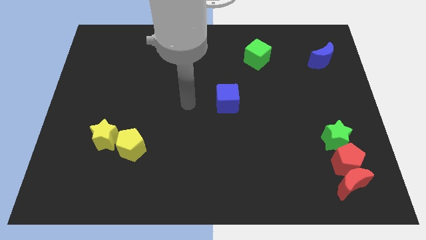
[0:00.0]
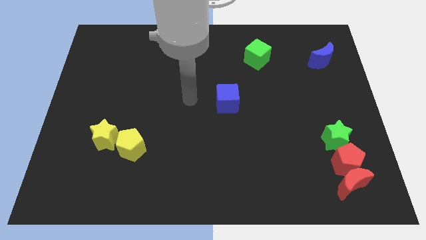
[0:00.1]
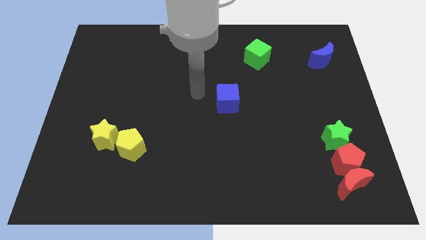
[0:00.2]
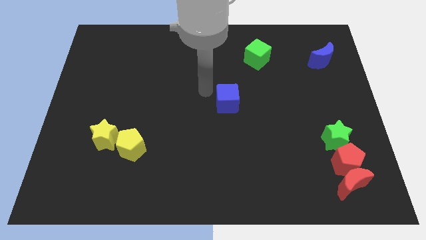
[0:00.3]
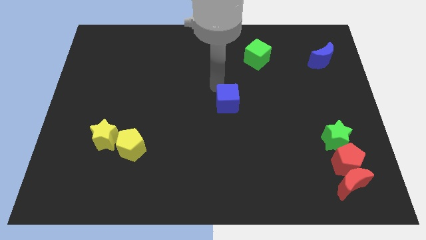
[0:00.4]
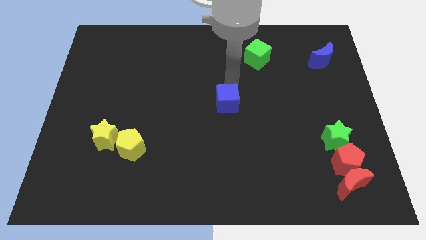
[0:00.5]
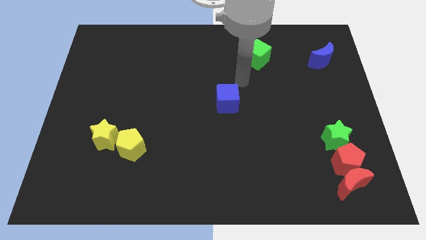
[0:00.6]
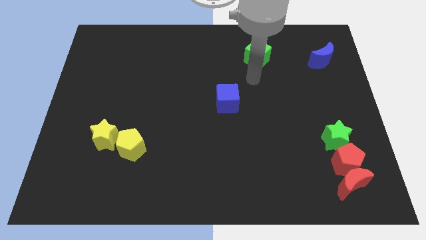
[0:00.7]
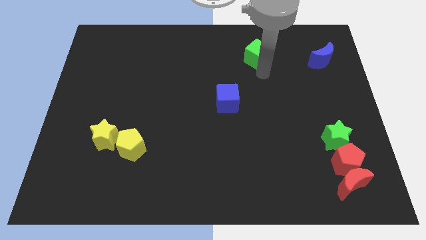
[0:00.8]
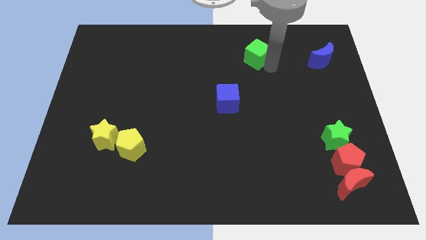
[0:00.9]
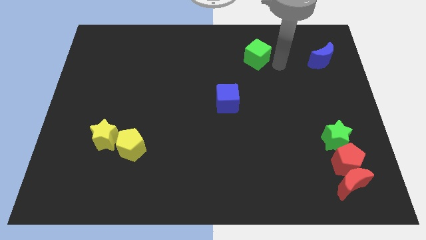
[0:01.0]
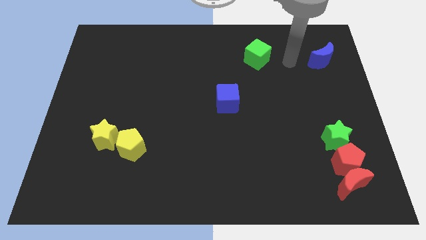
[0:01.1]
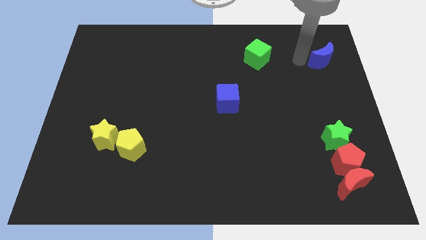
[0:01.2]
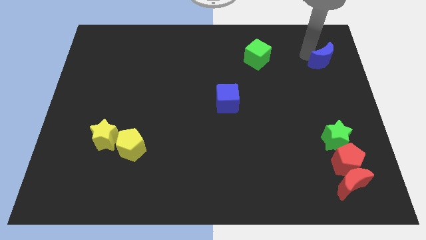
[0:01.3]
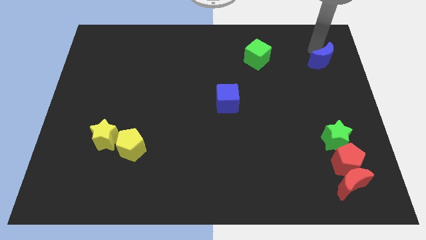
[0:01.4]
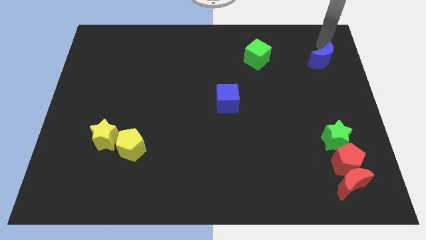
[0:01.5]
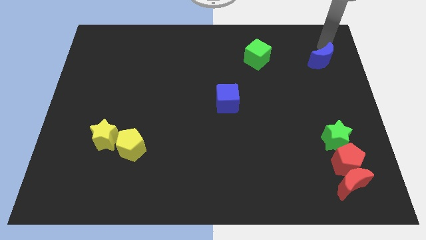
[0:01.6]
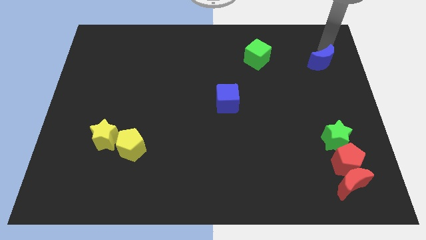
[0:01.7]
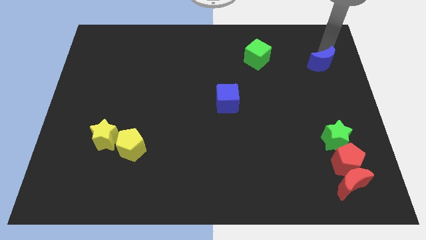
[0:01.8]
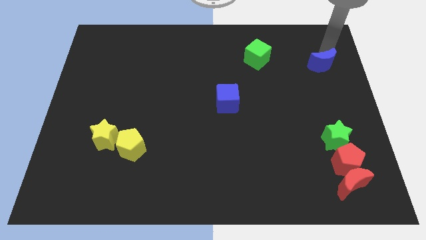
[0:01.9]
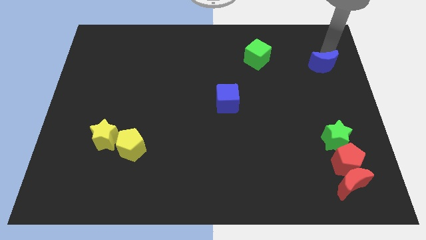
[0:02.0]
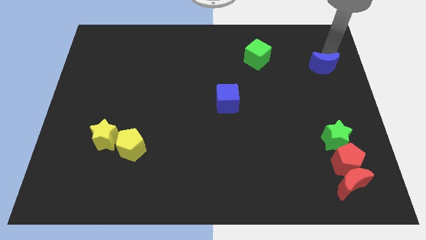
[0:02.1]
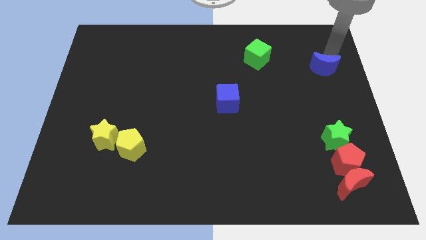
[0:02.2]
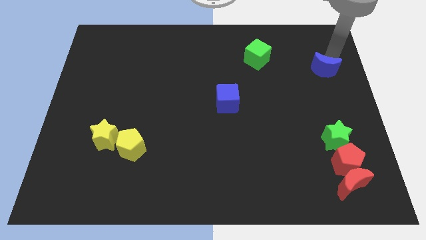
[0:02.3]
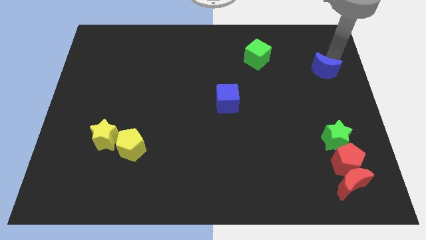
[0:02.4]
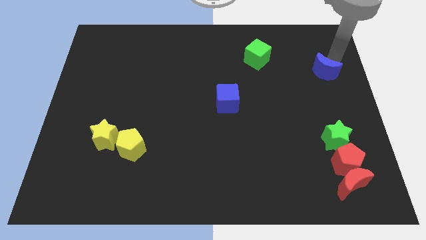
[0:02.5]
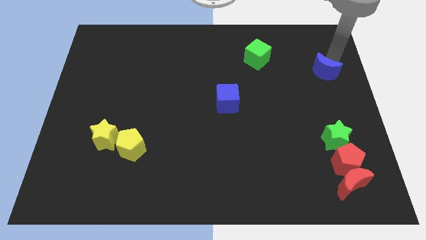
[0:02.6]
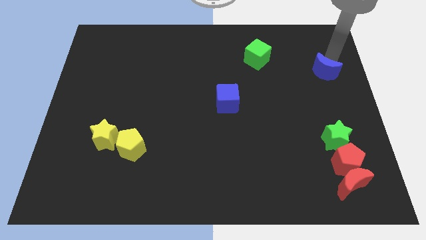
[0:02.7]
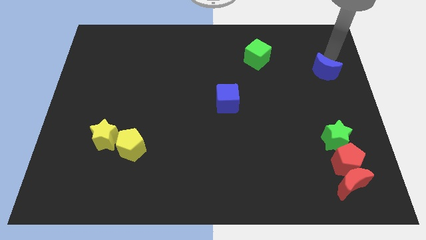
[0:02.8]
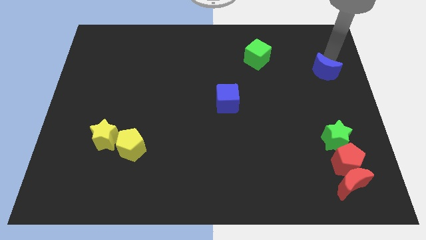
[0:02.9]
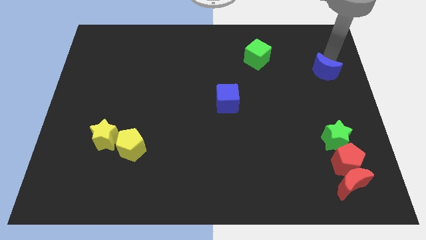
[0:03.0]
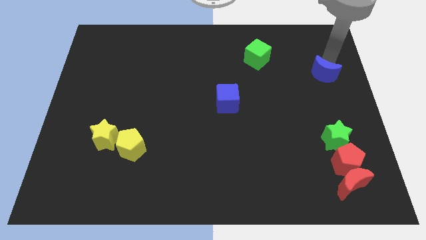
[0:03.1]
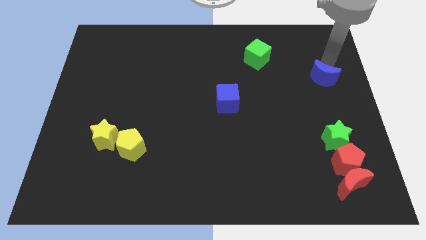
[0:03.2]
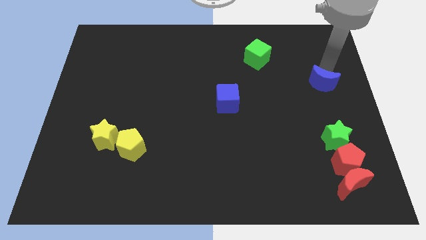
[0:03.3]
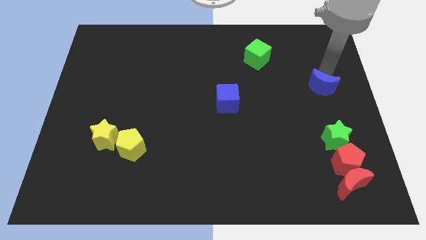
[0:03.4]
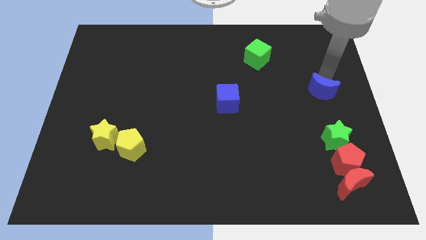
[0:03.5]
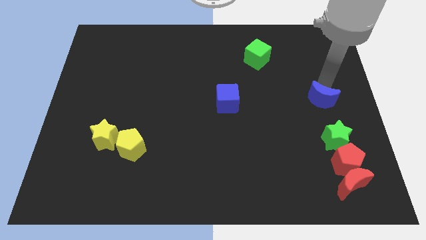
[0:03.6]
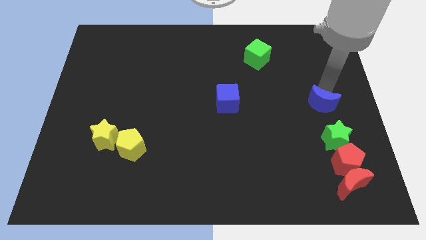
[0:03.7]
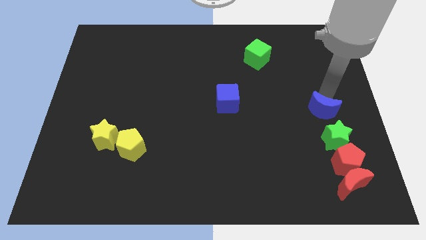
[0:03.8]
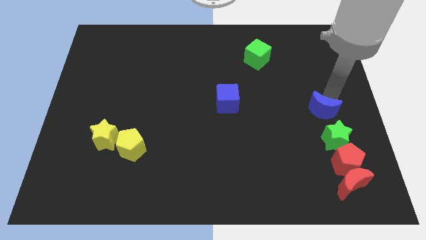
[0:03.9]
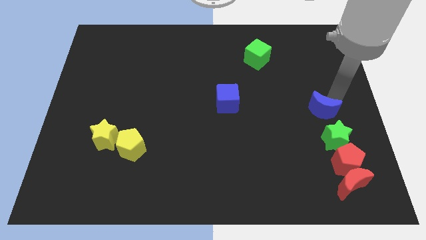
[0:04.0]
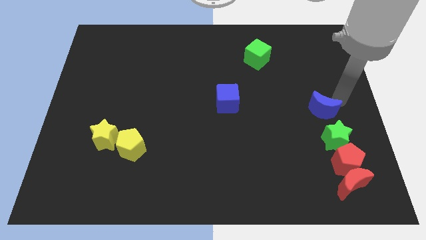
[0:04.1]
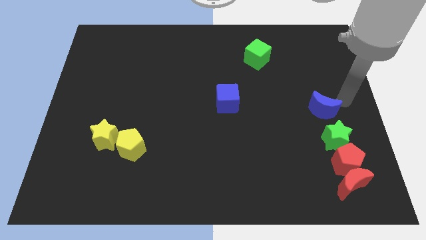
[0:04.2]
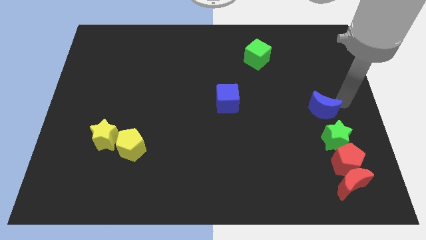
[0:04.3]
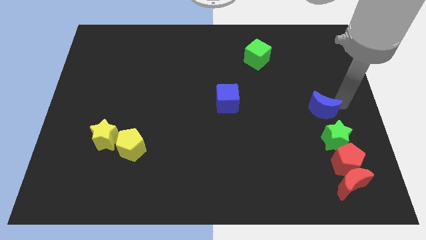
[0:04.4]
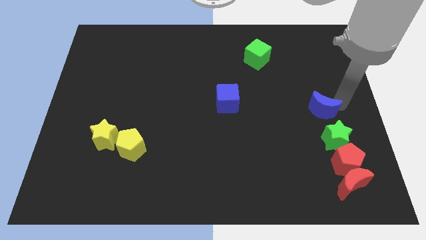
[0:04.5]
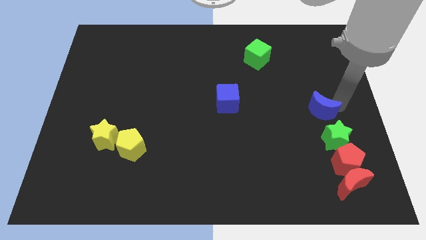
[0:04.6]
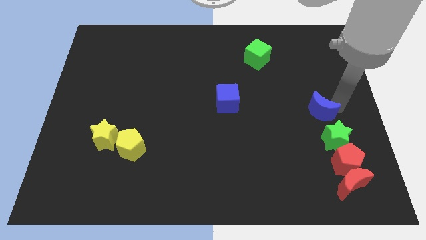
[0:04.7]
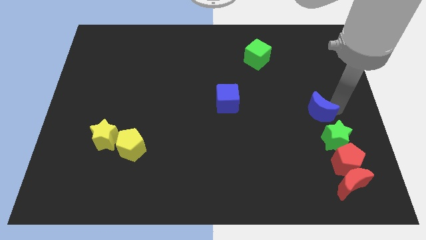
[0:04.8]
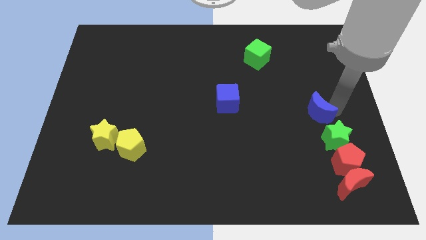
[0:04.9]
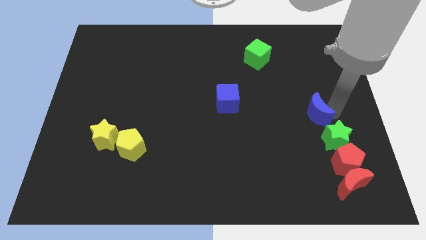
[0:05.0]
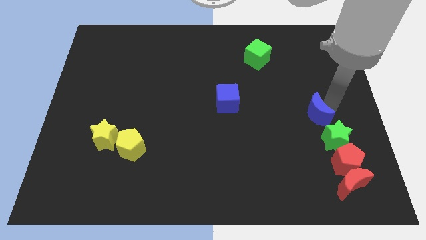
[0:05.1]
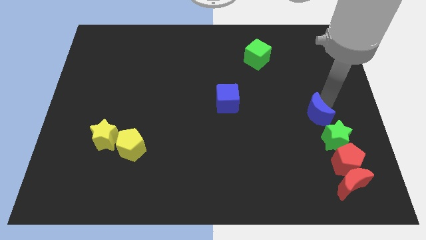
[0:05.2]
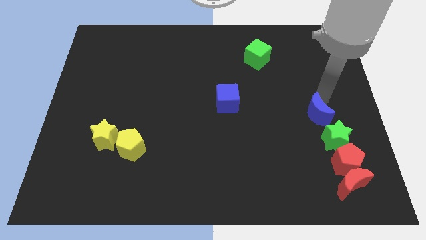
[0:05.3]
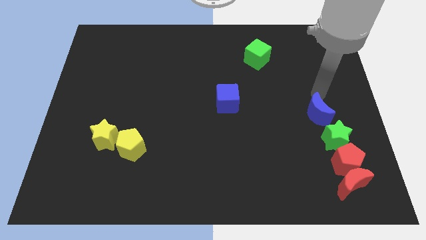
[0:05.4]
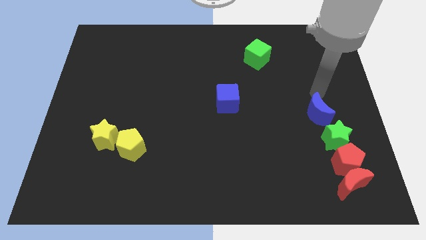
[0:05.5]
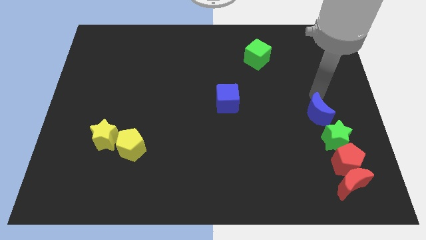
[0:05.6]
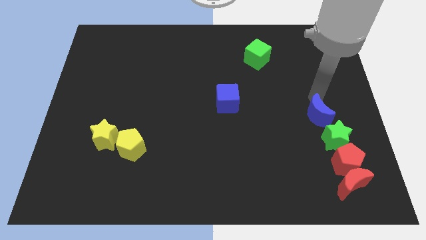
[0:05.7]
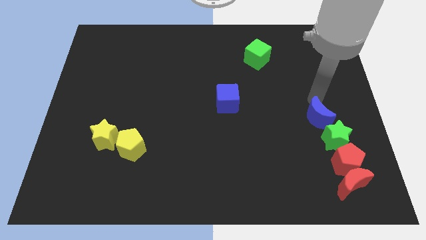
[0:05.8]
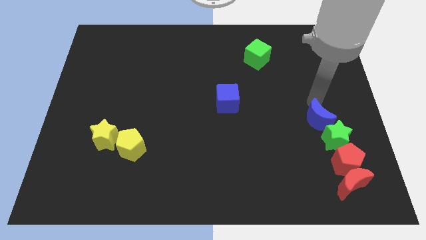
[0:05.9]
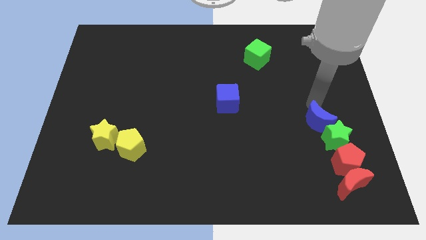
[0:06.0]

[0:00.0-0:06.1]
put the blue moon to the top left of the red pentagon

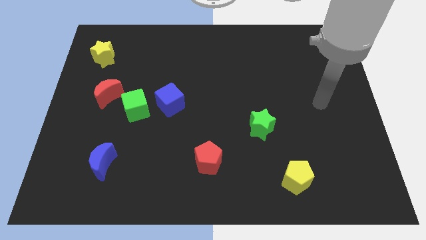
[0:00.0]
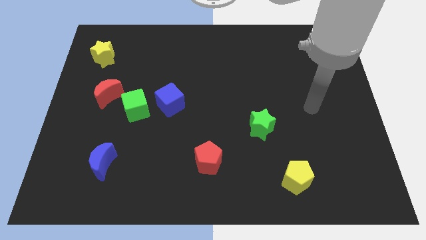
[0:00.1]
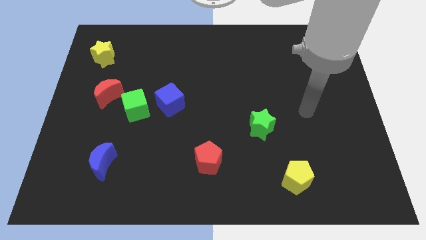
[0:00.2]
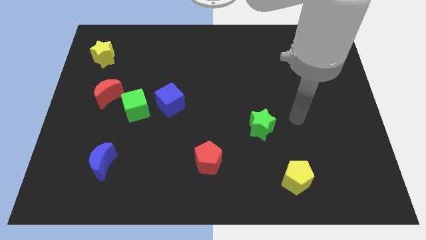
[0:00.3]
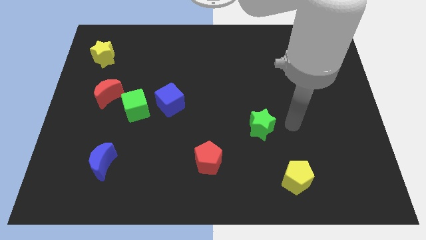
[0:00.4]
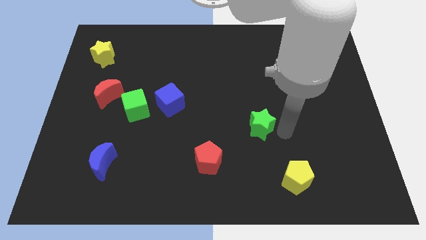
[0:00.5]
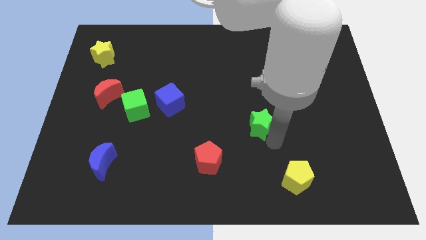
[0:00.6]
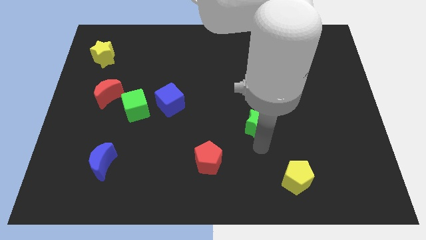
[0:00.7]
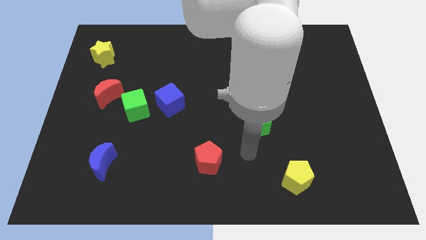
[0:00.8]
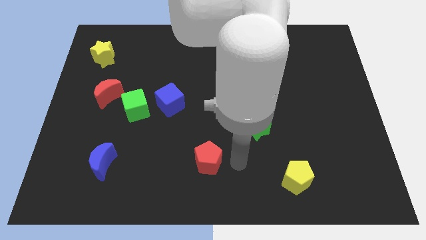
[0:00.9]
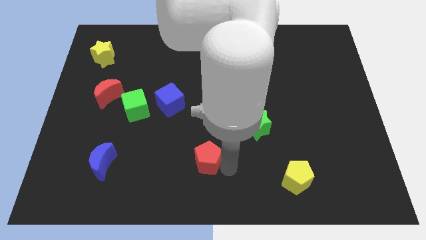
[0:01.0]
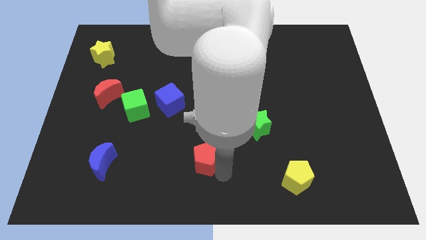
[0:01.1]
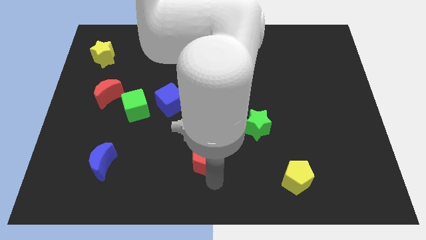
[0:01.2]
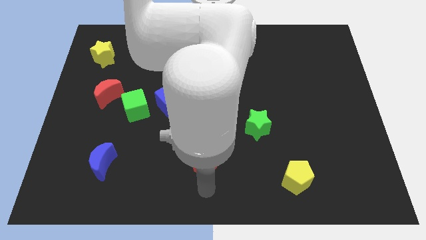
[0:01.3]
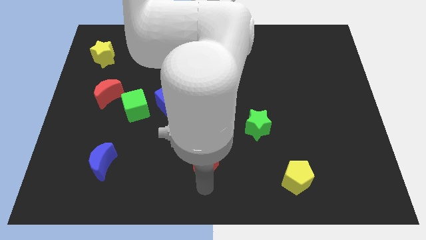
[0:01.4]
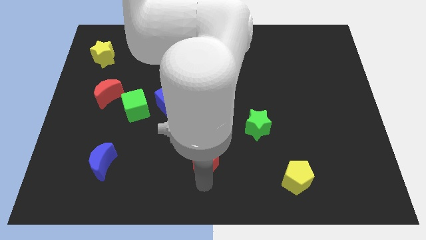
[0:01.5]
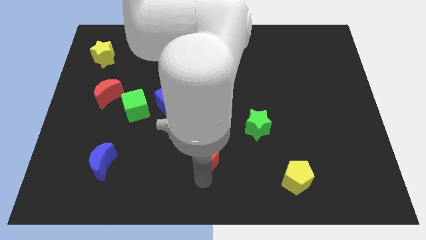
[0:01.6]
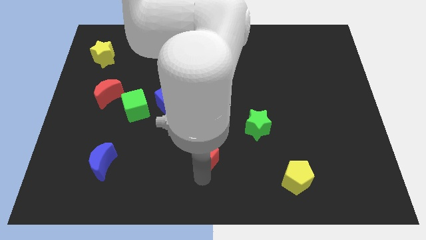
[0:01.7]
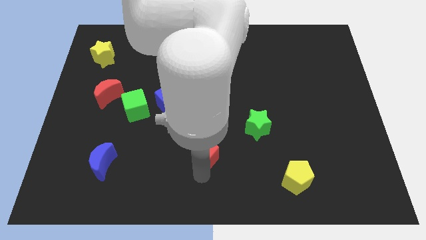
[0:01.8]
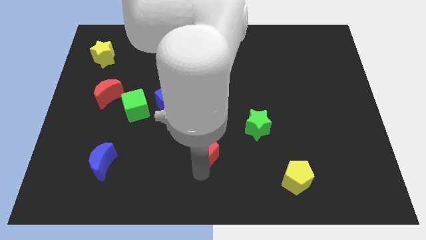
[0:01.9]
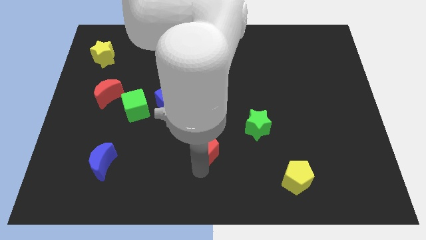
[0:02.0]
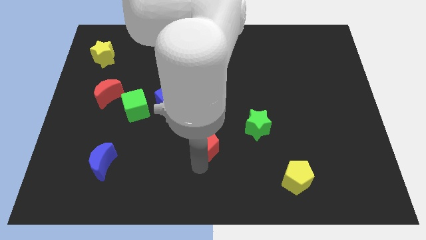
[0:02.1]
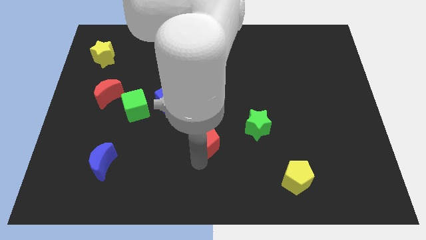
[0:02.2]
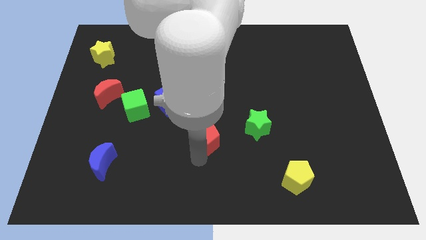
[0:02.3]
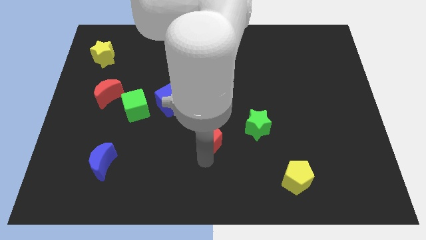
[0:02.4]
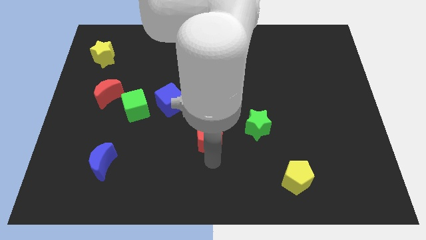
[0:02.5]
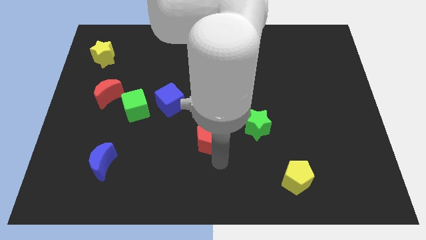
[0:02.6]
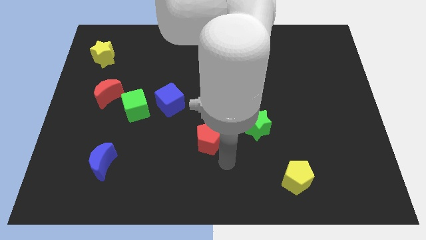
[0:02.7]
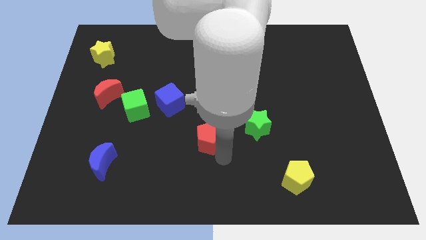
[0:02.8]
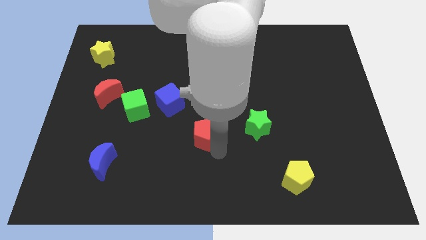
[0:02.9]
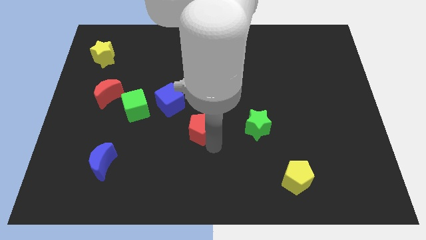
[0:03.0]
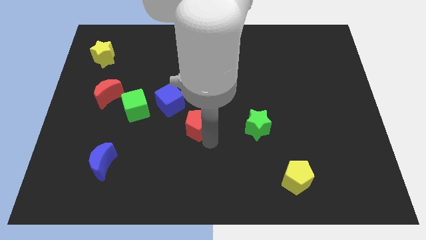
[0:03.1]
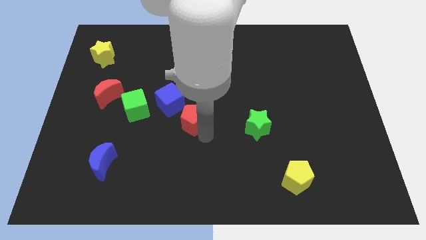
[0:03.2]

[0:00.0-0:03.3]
move the red pentagon to the right of the green cube
